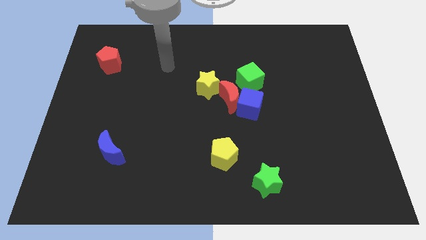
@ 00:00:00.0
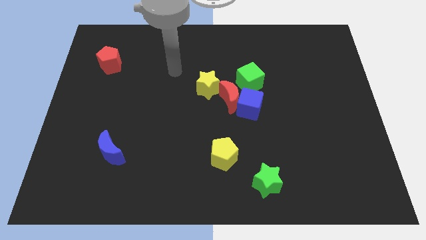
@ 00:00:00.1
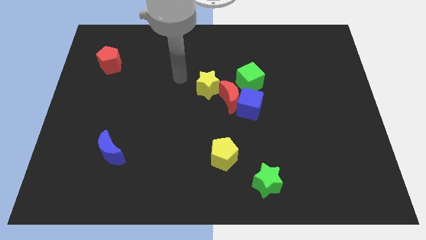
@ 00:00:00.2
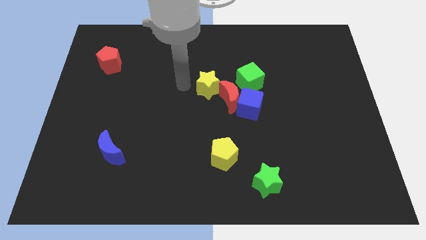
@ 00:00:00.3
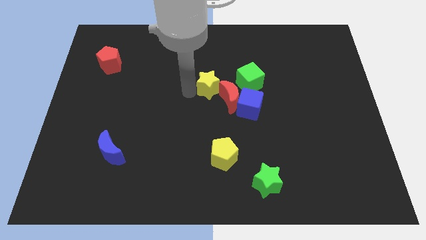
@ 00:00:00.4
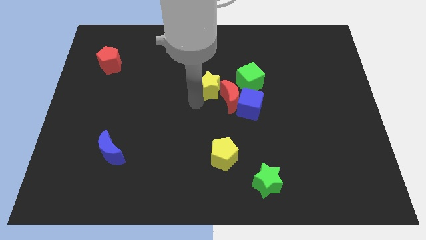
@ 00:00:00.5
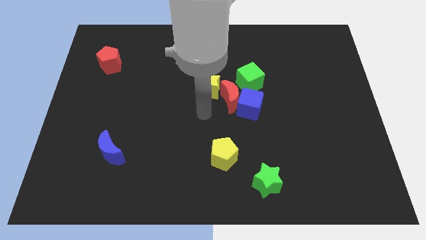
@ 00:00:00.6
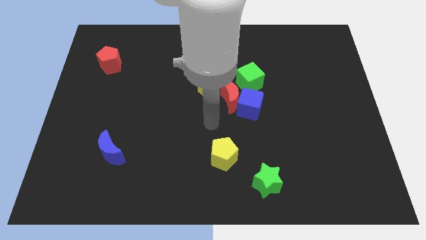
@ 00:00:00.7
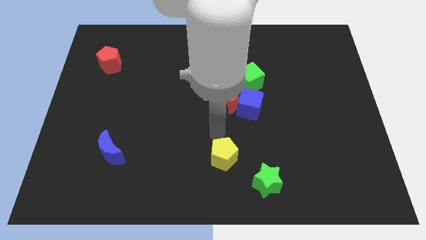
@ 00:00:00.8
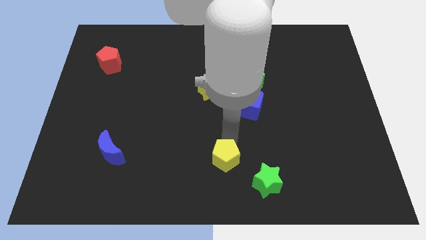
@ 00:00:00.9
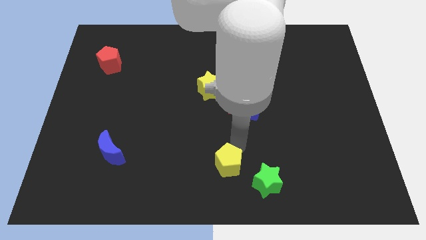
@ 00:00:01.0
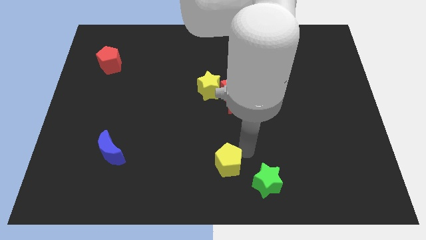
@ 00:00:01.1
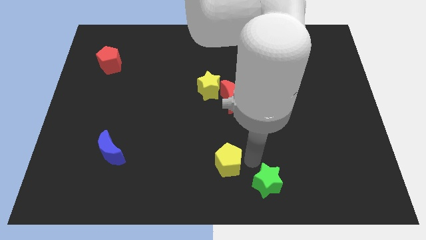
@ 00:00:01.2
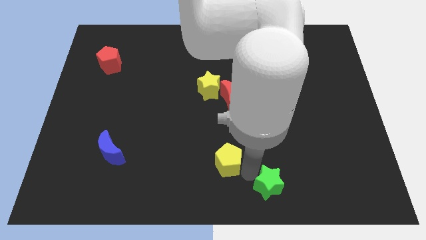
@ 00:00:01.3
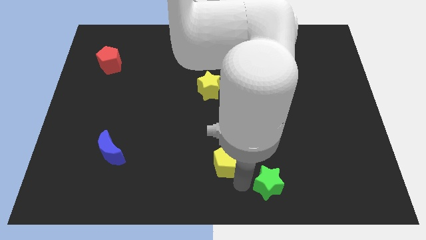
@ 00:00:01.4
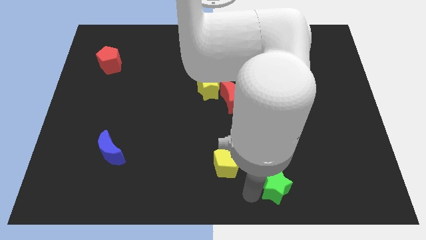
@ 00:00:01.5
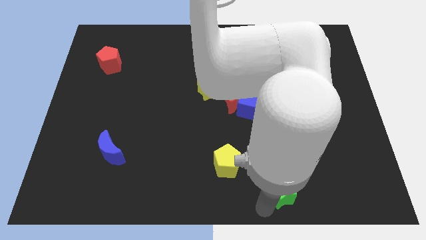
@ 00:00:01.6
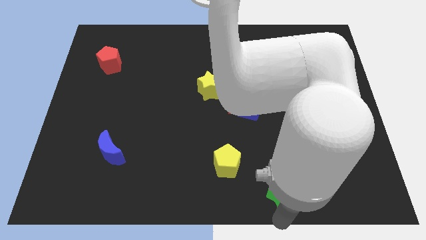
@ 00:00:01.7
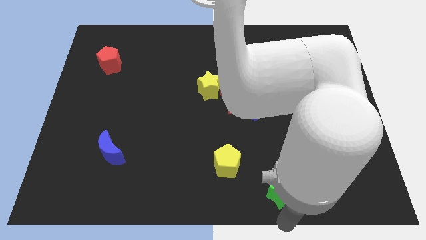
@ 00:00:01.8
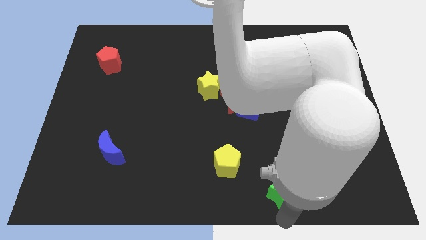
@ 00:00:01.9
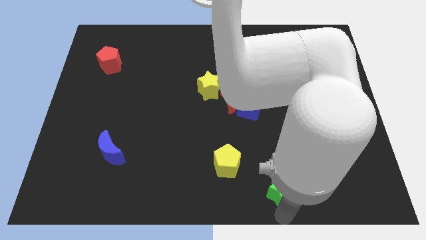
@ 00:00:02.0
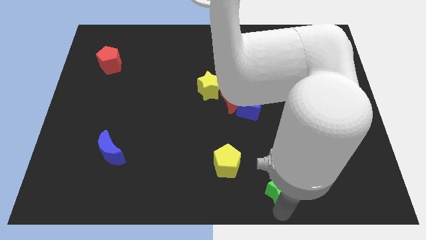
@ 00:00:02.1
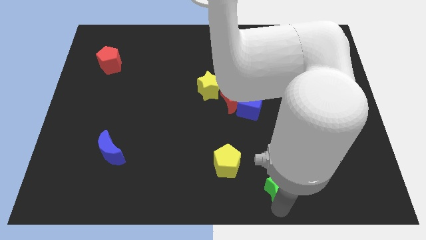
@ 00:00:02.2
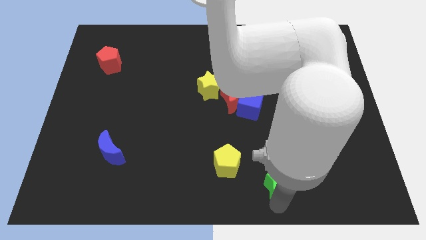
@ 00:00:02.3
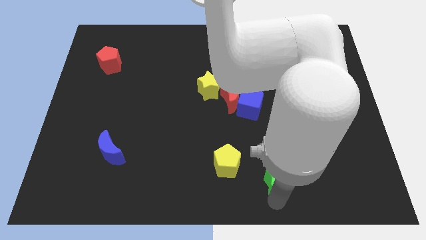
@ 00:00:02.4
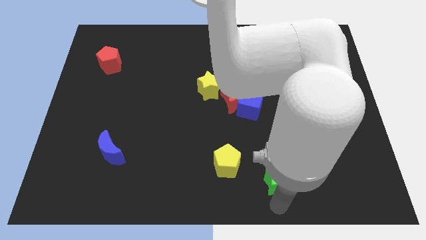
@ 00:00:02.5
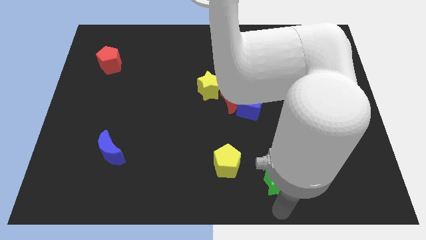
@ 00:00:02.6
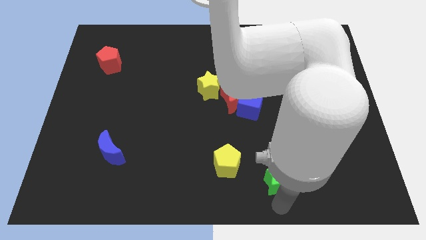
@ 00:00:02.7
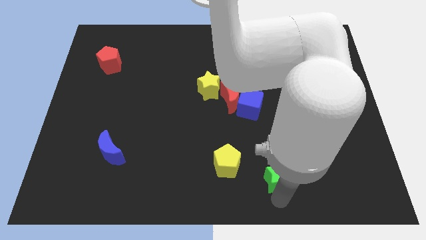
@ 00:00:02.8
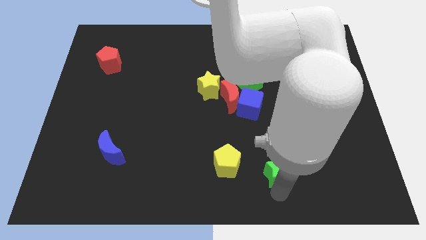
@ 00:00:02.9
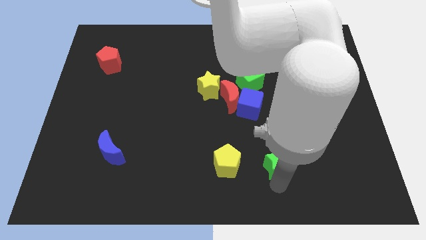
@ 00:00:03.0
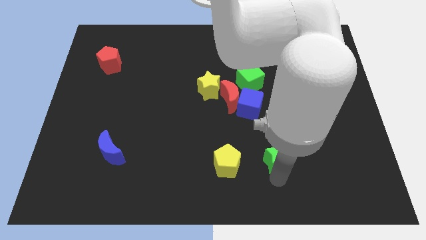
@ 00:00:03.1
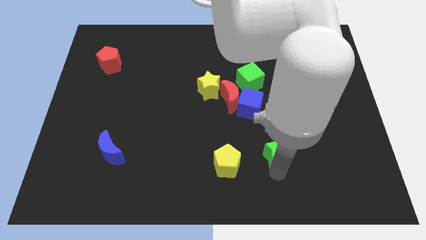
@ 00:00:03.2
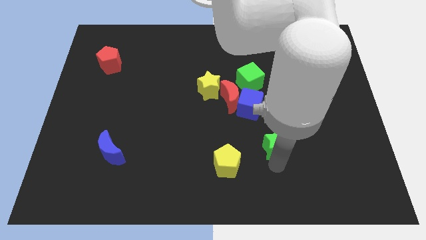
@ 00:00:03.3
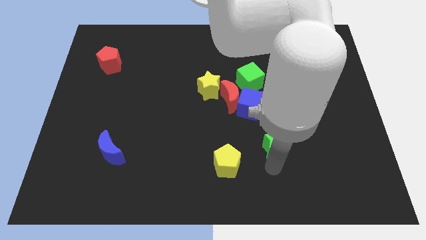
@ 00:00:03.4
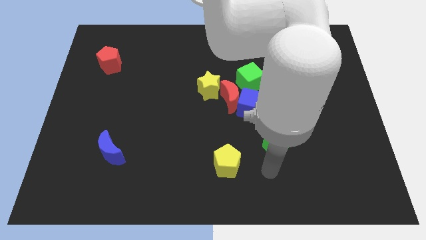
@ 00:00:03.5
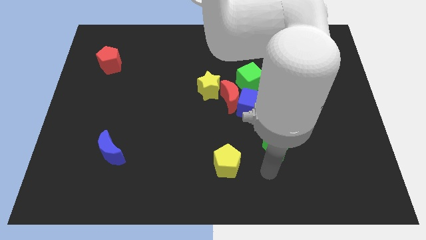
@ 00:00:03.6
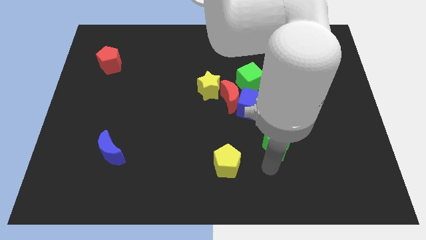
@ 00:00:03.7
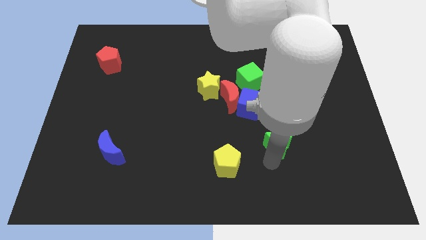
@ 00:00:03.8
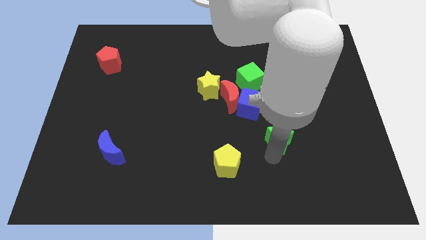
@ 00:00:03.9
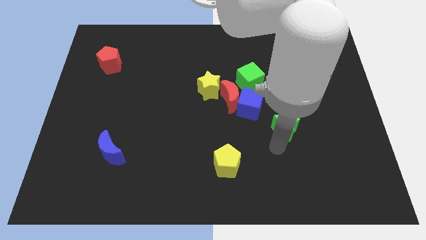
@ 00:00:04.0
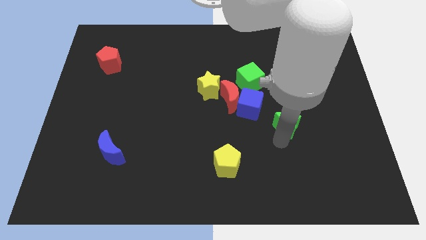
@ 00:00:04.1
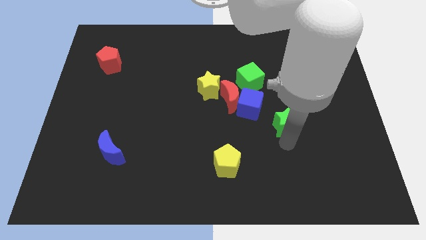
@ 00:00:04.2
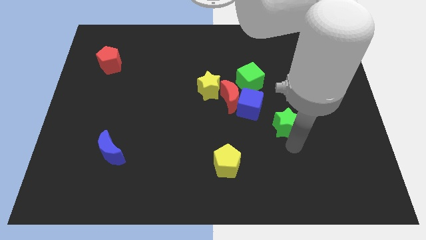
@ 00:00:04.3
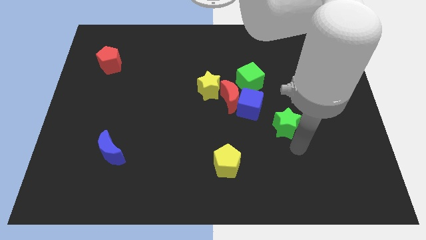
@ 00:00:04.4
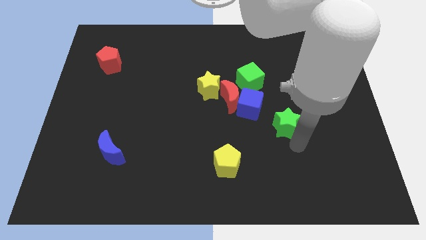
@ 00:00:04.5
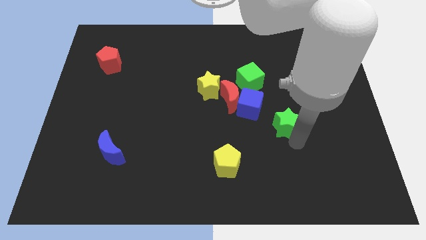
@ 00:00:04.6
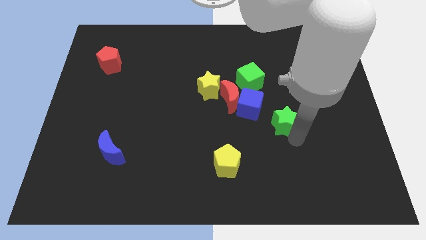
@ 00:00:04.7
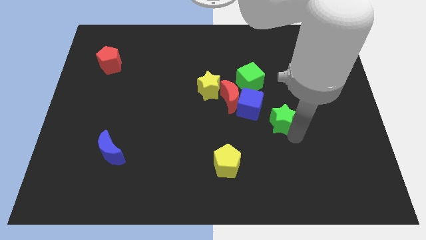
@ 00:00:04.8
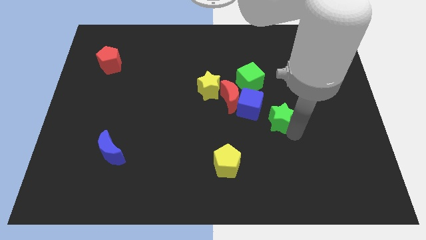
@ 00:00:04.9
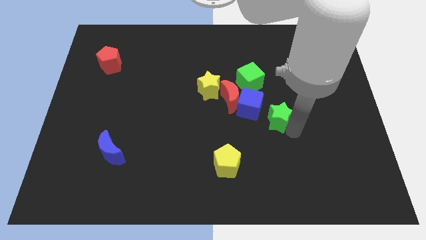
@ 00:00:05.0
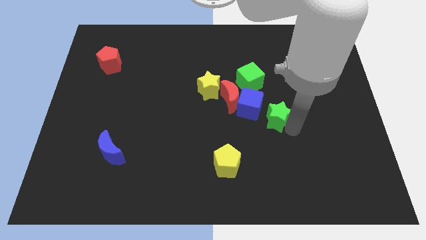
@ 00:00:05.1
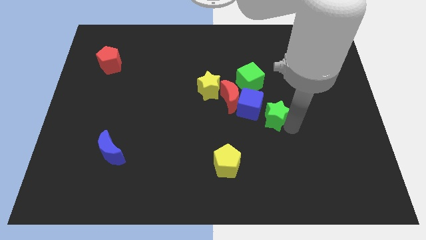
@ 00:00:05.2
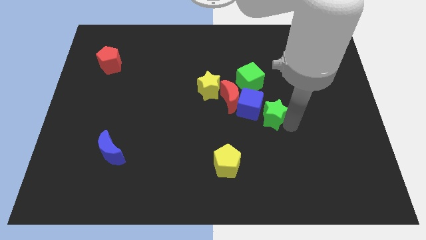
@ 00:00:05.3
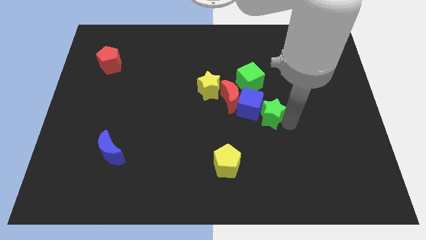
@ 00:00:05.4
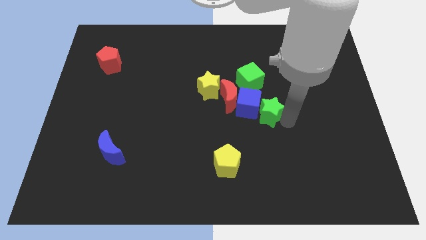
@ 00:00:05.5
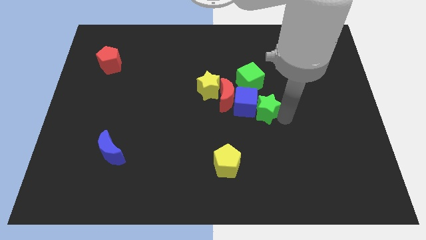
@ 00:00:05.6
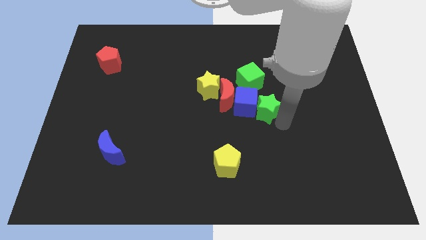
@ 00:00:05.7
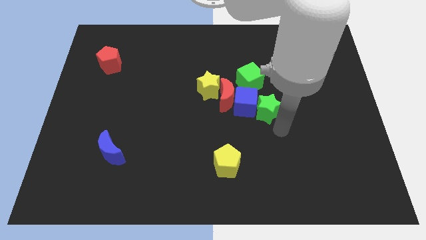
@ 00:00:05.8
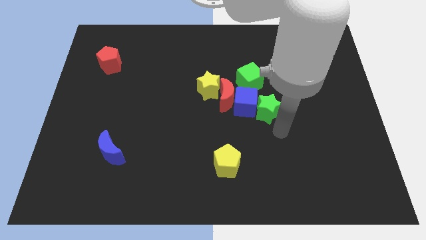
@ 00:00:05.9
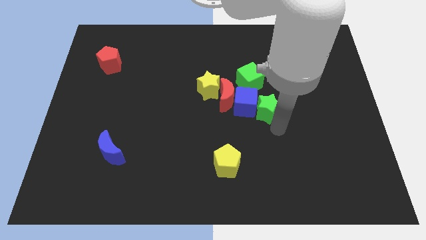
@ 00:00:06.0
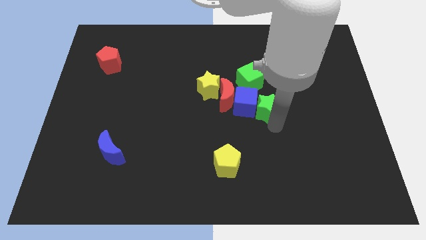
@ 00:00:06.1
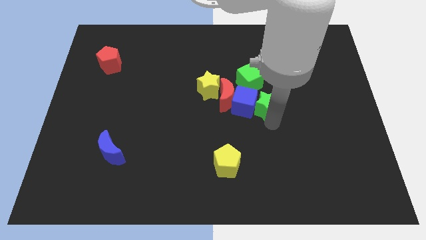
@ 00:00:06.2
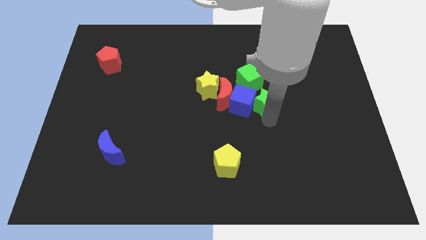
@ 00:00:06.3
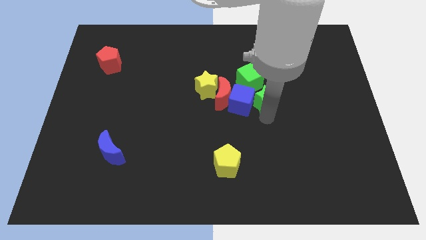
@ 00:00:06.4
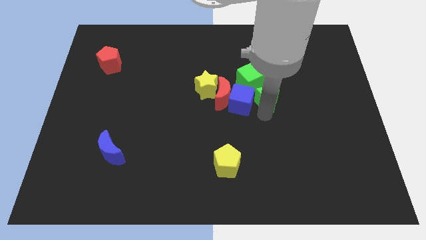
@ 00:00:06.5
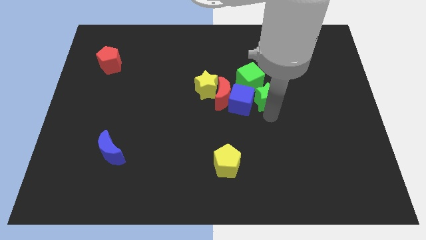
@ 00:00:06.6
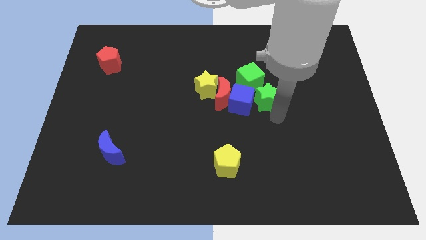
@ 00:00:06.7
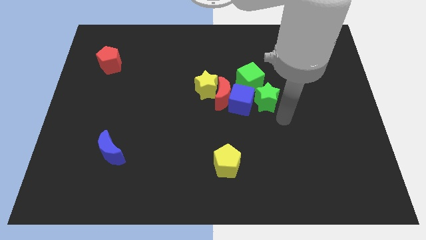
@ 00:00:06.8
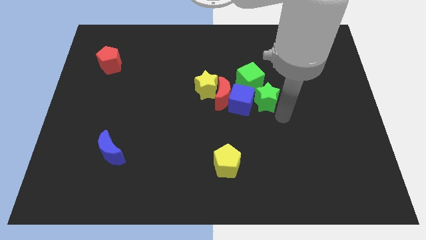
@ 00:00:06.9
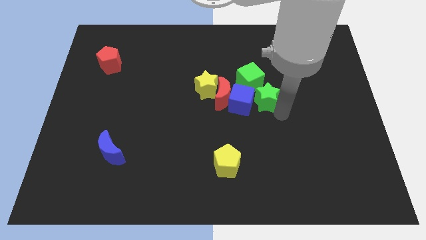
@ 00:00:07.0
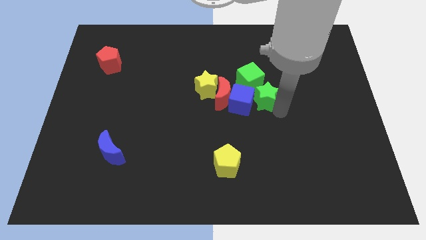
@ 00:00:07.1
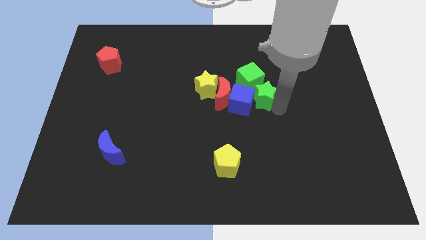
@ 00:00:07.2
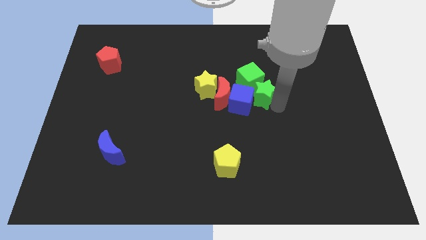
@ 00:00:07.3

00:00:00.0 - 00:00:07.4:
put the green star towards the green cube
